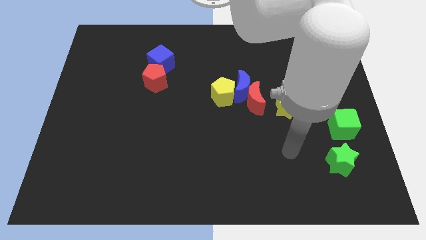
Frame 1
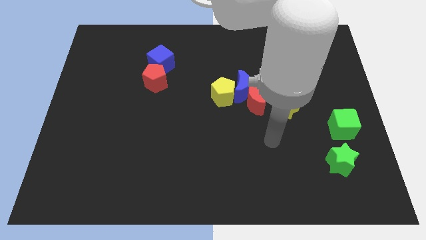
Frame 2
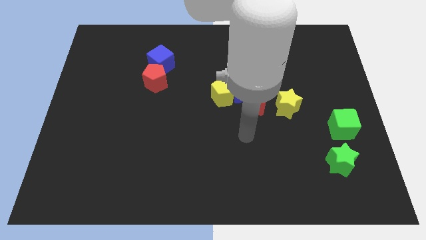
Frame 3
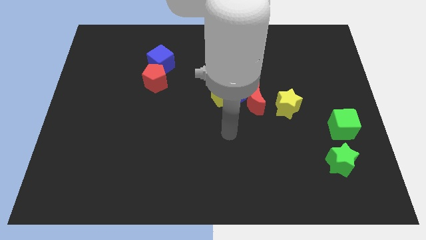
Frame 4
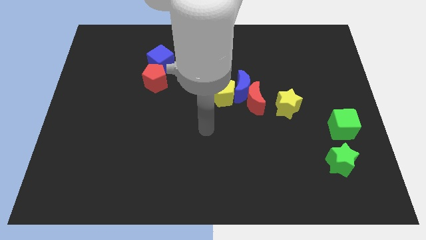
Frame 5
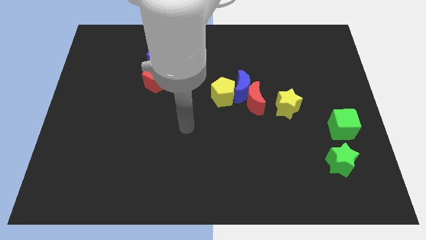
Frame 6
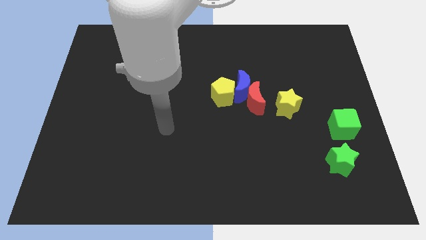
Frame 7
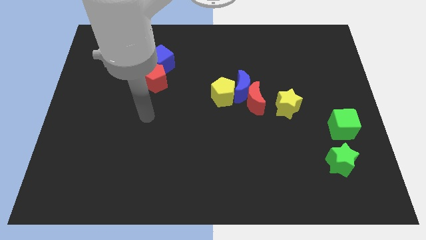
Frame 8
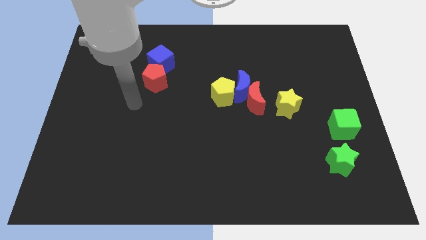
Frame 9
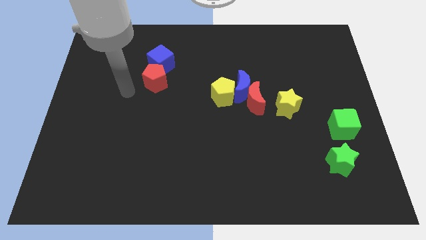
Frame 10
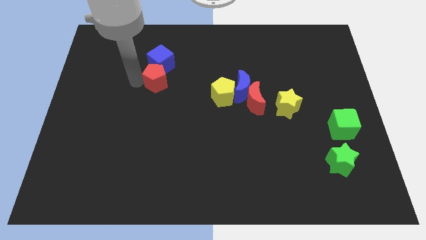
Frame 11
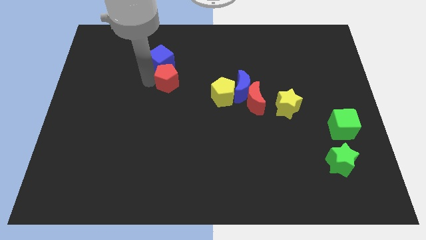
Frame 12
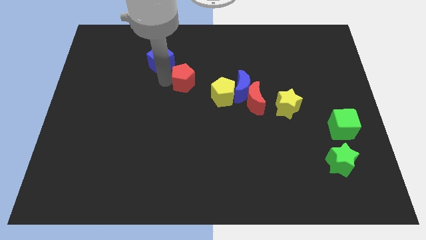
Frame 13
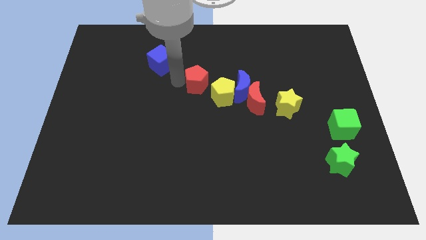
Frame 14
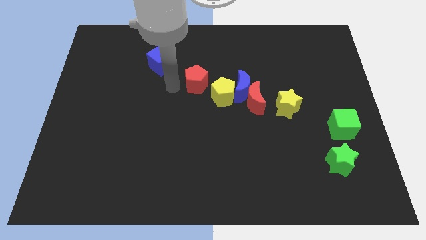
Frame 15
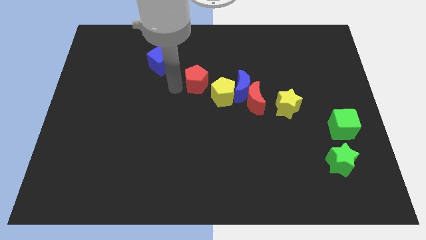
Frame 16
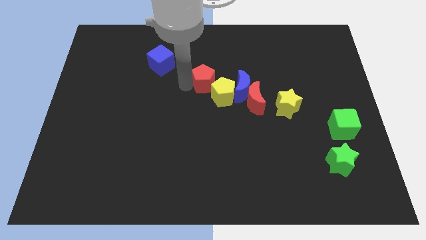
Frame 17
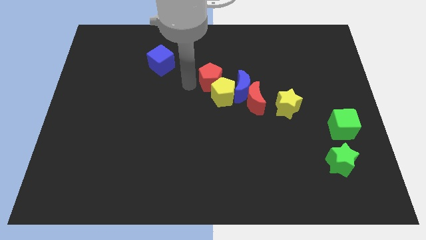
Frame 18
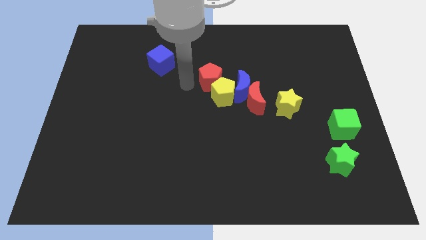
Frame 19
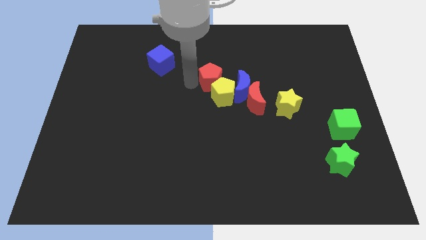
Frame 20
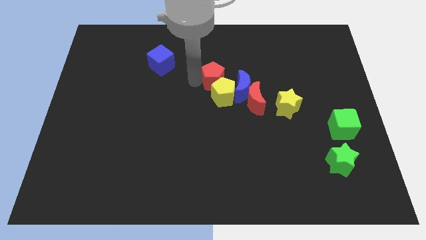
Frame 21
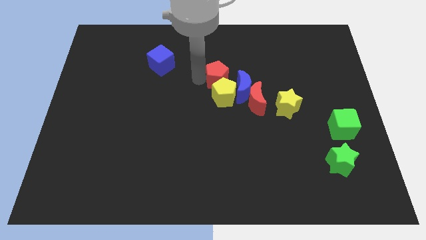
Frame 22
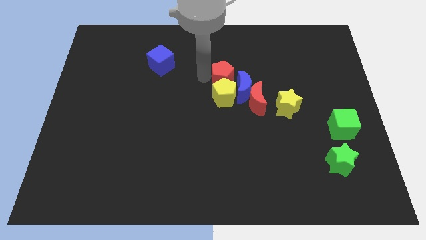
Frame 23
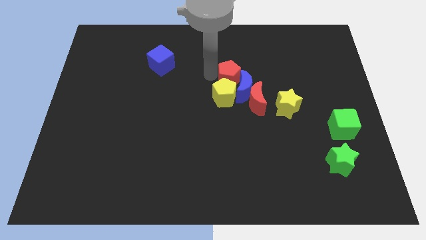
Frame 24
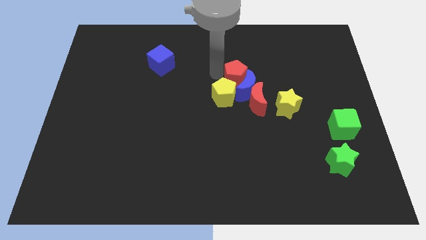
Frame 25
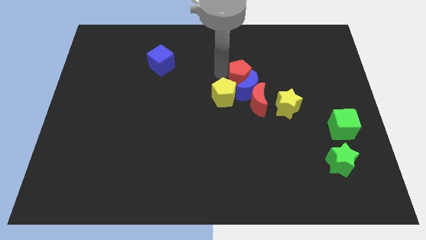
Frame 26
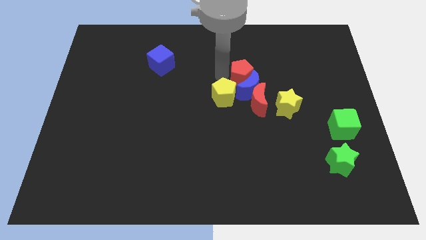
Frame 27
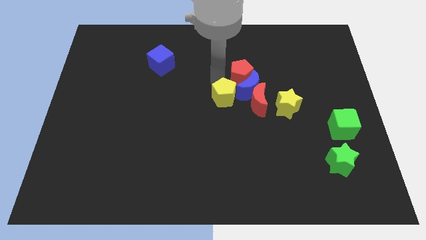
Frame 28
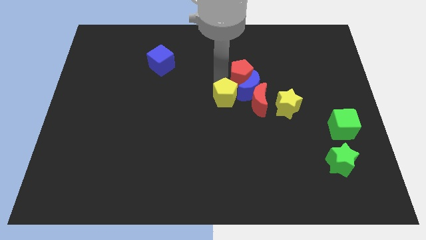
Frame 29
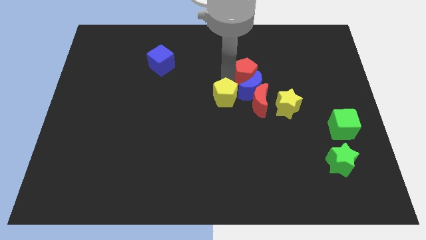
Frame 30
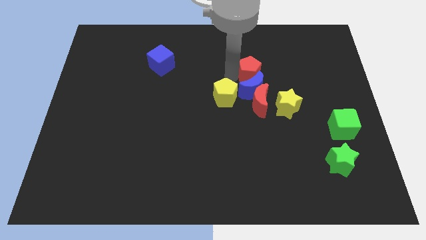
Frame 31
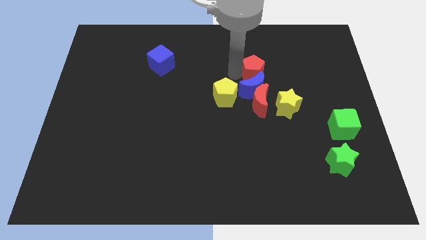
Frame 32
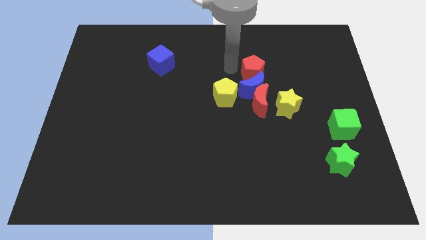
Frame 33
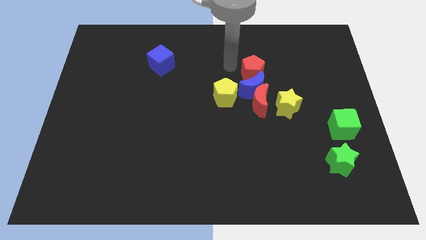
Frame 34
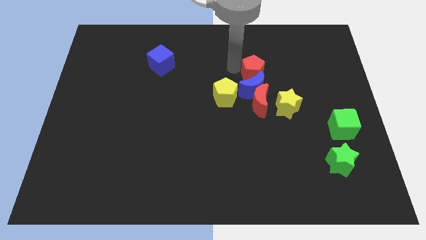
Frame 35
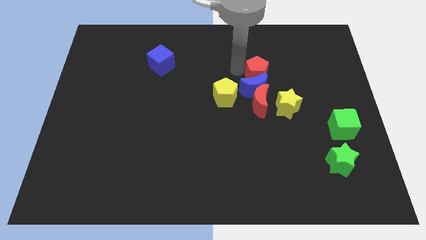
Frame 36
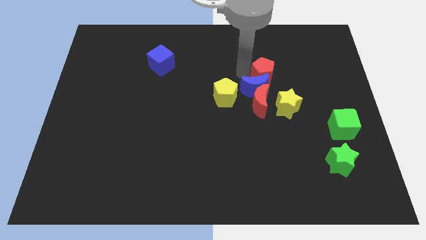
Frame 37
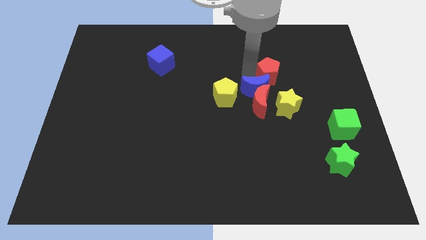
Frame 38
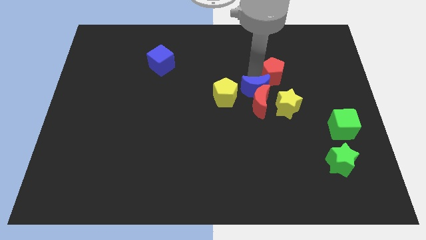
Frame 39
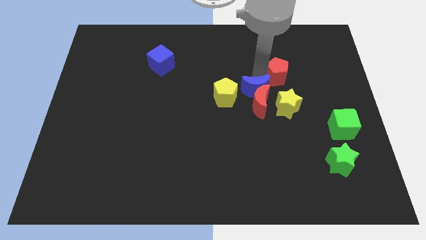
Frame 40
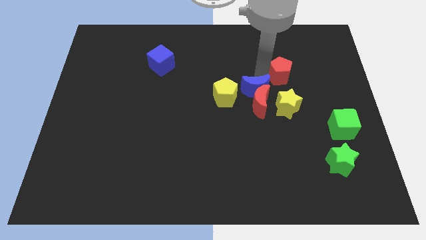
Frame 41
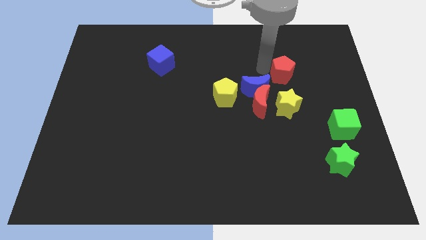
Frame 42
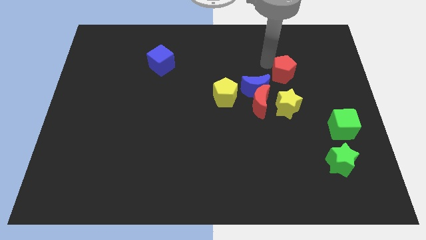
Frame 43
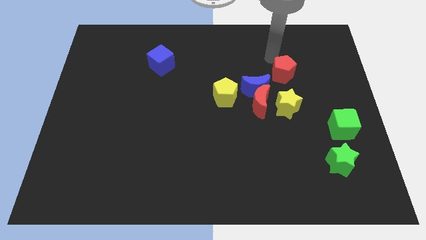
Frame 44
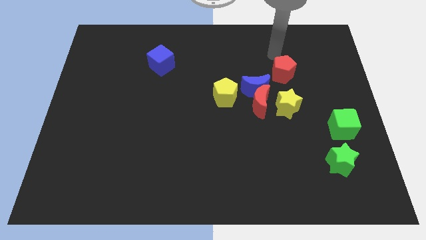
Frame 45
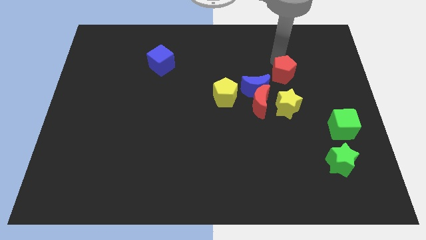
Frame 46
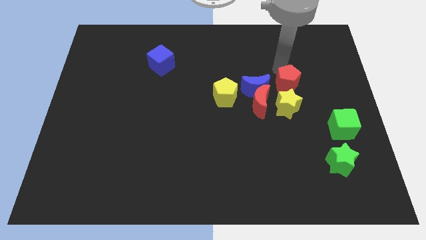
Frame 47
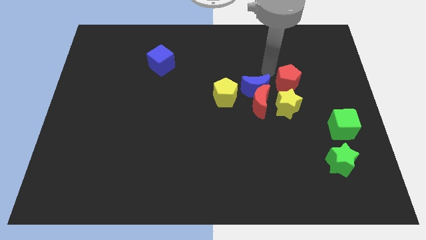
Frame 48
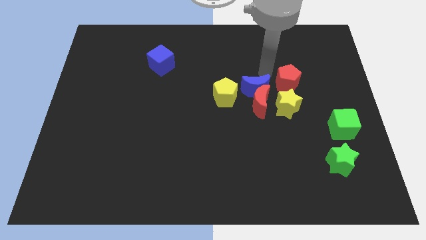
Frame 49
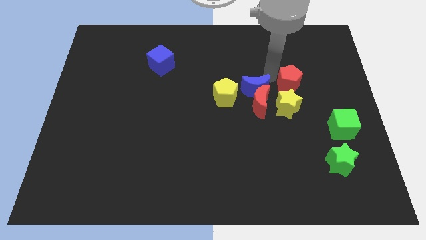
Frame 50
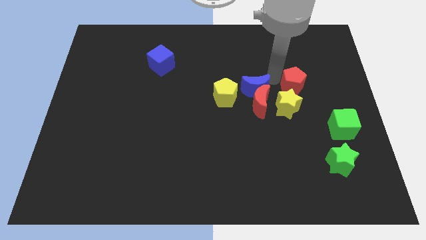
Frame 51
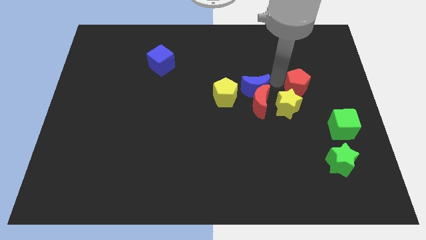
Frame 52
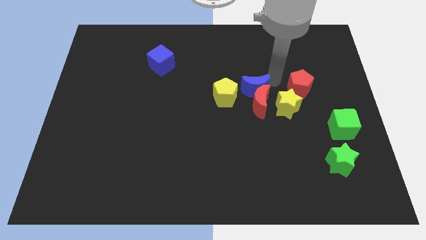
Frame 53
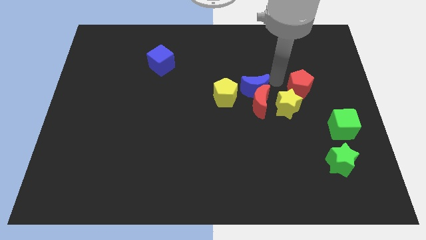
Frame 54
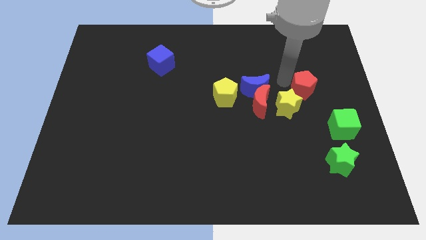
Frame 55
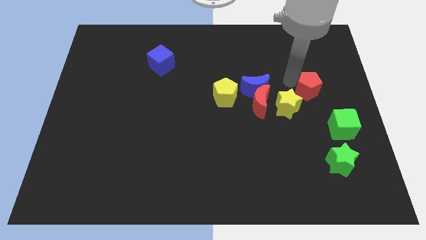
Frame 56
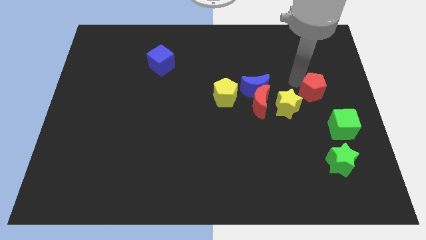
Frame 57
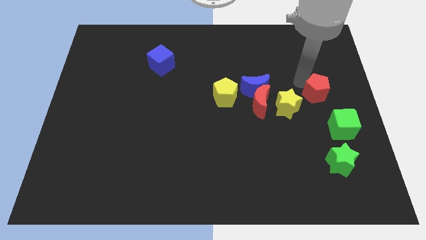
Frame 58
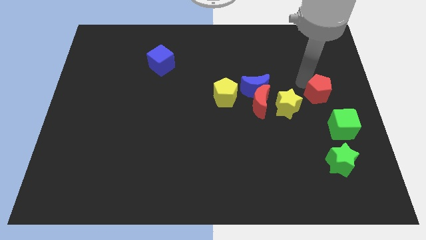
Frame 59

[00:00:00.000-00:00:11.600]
move the red pentagon to the right side
